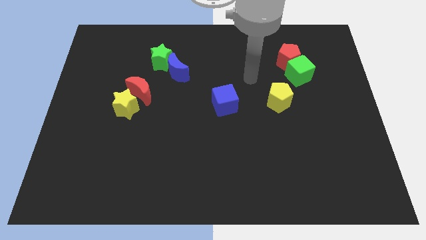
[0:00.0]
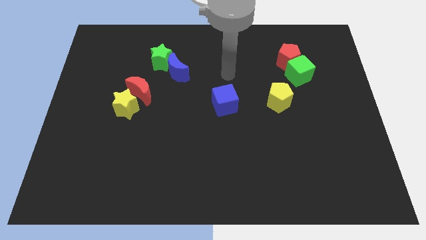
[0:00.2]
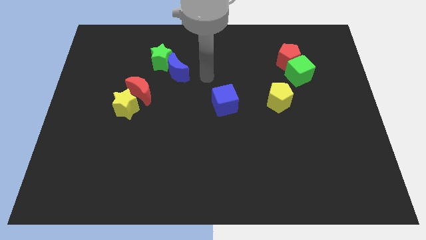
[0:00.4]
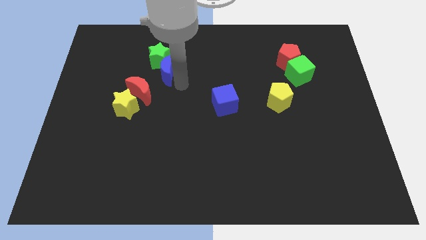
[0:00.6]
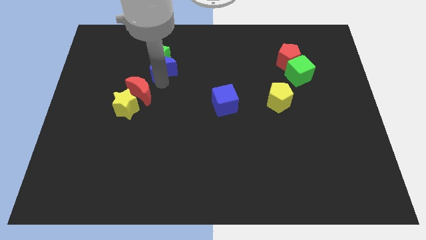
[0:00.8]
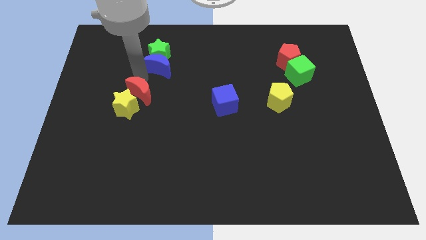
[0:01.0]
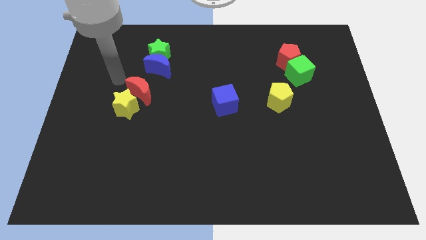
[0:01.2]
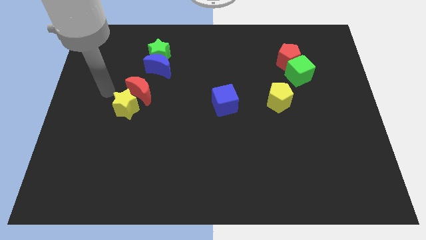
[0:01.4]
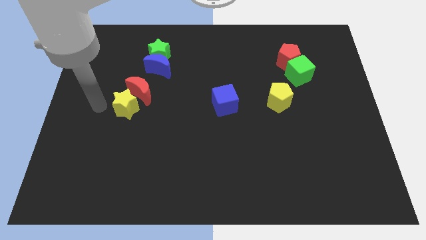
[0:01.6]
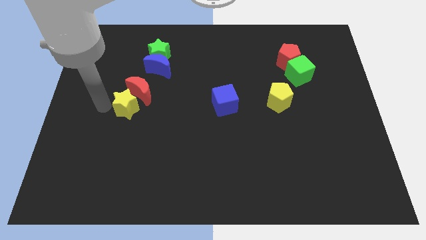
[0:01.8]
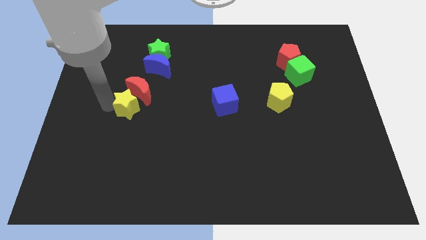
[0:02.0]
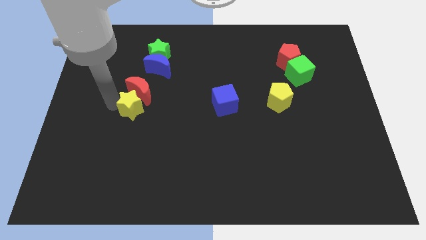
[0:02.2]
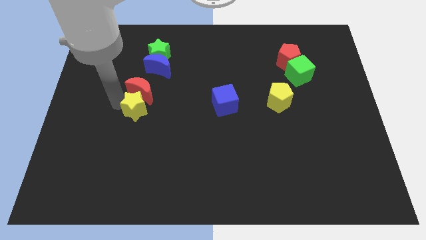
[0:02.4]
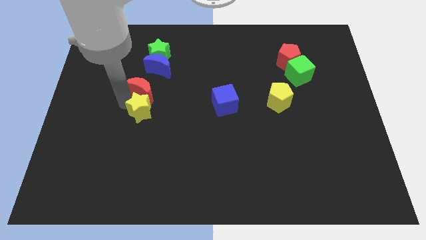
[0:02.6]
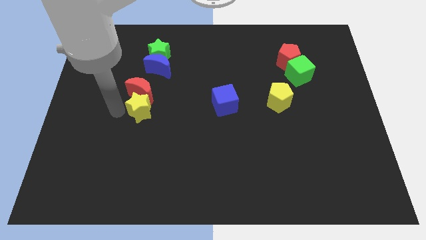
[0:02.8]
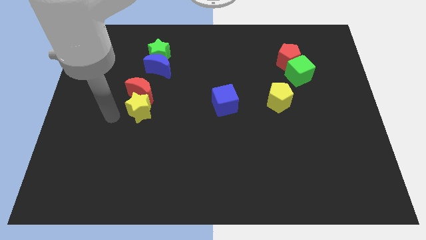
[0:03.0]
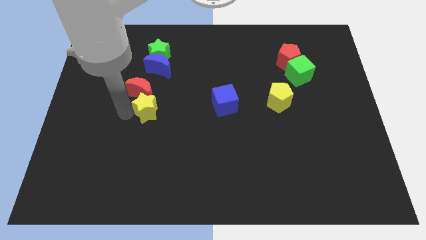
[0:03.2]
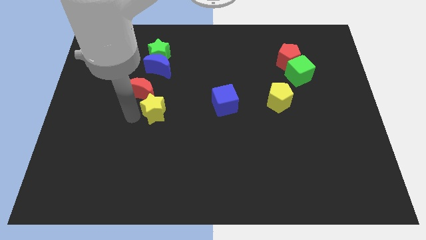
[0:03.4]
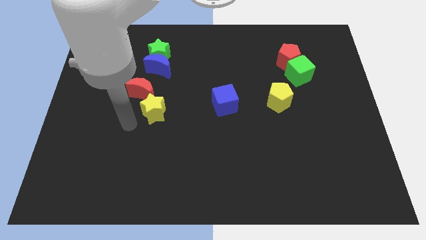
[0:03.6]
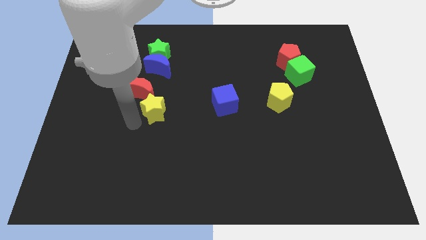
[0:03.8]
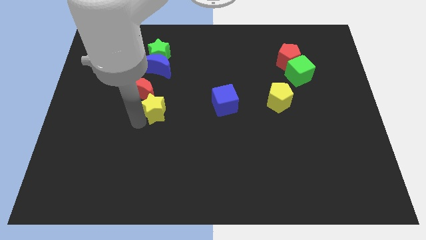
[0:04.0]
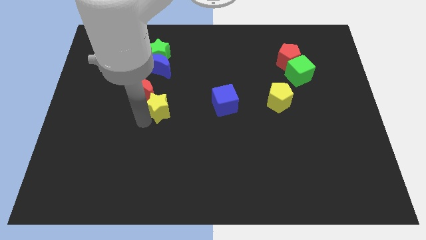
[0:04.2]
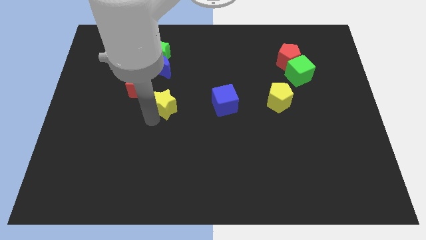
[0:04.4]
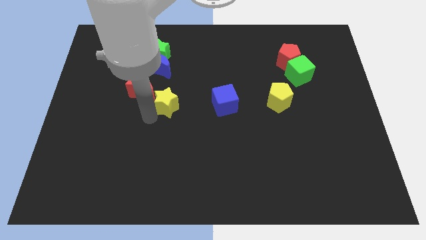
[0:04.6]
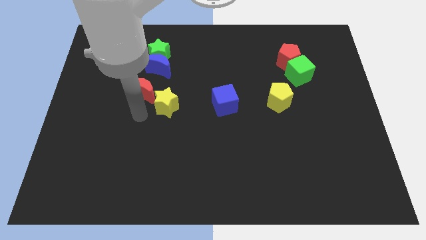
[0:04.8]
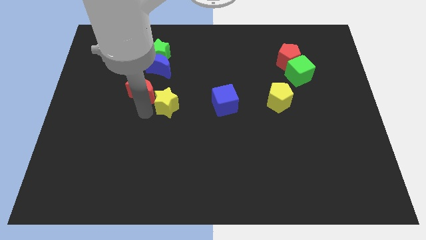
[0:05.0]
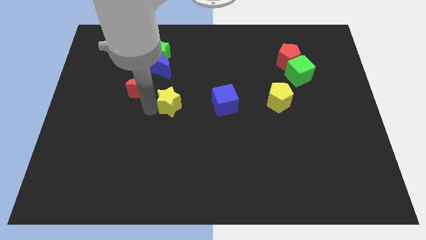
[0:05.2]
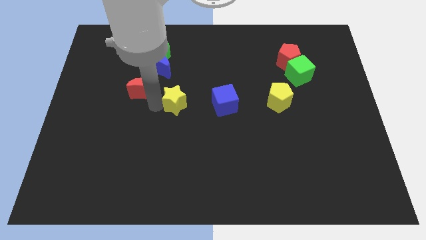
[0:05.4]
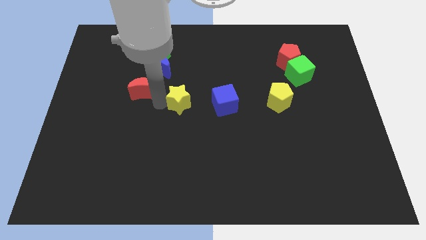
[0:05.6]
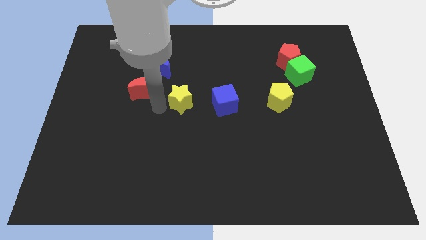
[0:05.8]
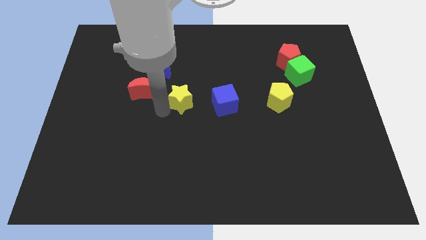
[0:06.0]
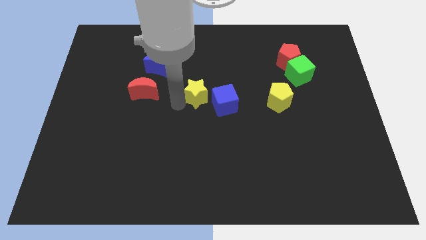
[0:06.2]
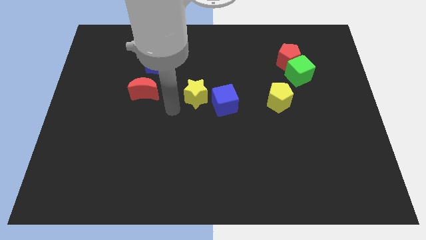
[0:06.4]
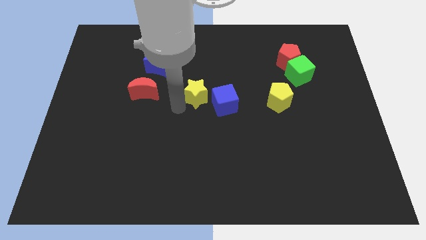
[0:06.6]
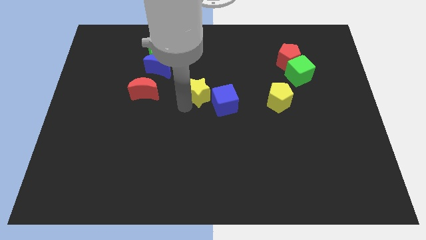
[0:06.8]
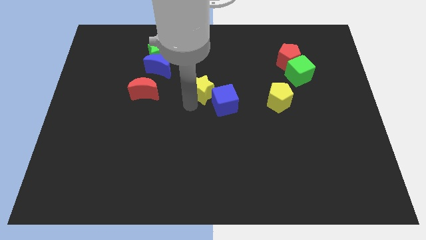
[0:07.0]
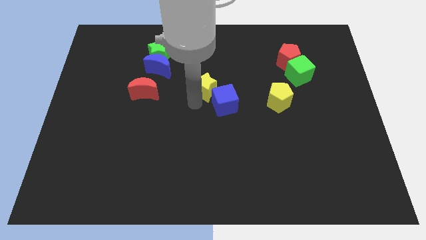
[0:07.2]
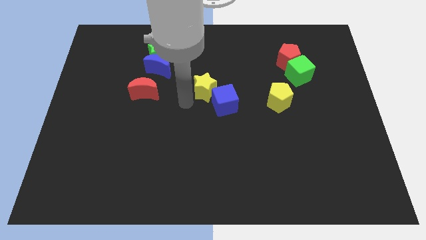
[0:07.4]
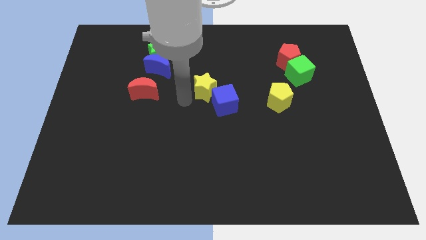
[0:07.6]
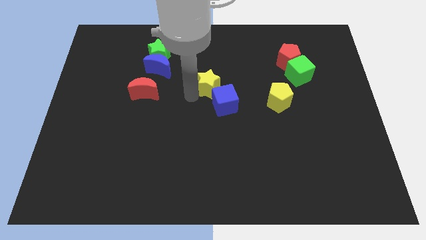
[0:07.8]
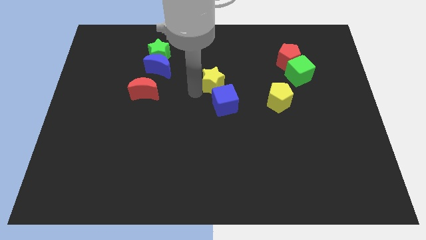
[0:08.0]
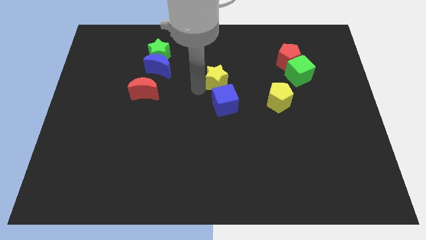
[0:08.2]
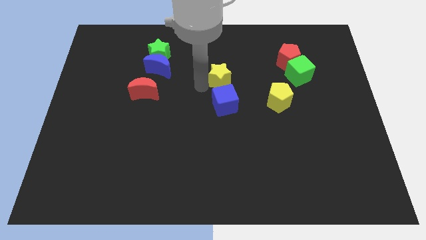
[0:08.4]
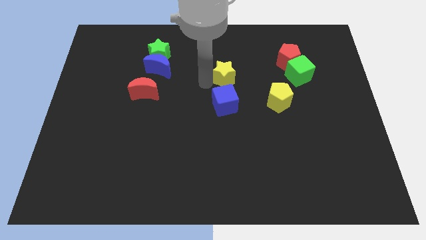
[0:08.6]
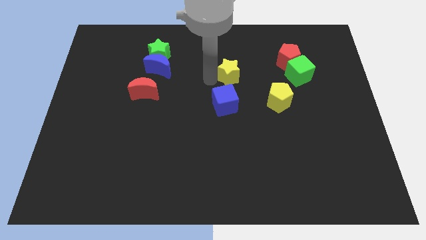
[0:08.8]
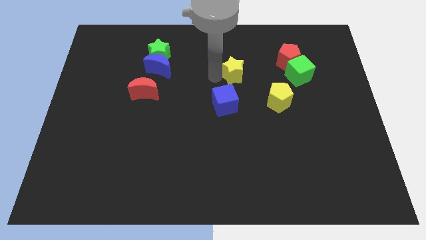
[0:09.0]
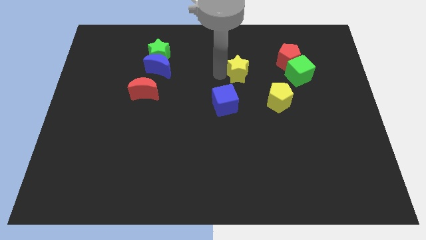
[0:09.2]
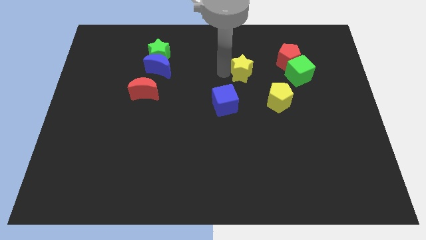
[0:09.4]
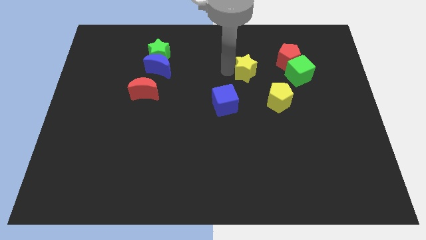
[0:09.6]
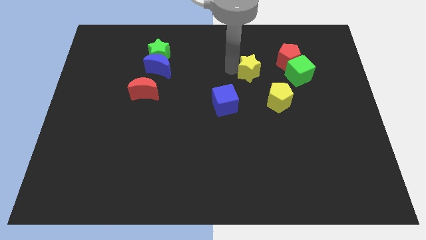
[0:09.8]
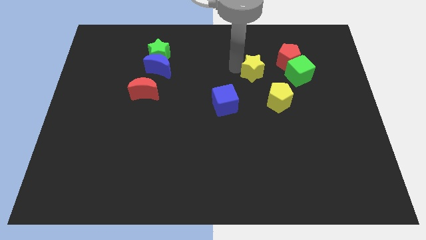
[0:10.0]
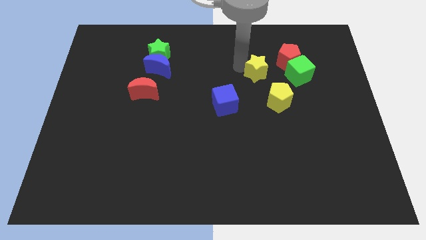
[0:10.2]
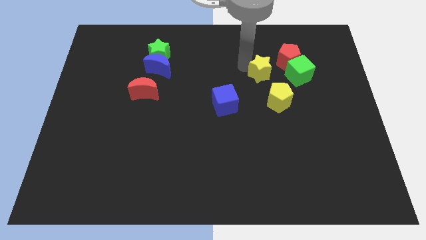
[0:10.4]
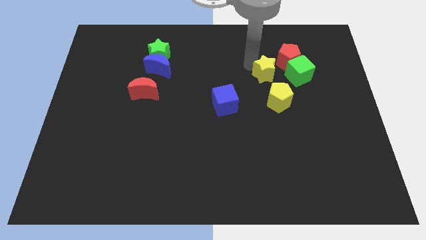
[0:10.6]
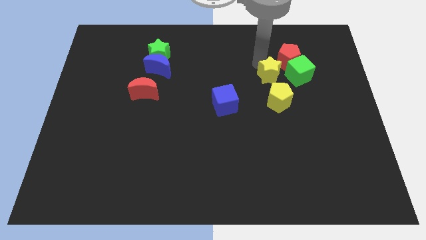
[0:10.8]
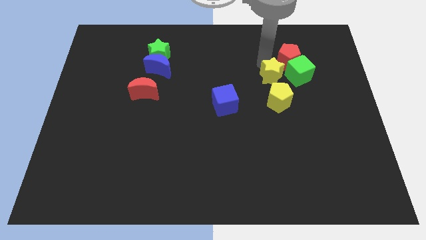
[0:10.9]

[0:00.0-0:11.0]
put the yellow star to the bottom of the red pentagon

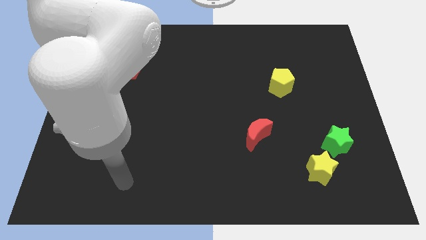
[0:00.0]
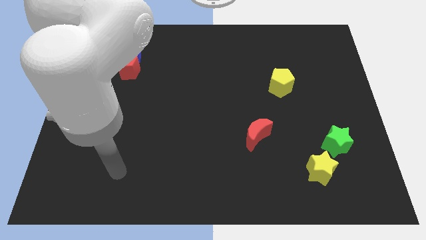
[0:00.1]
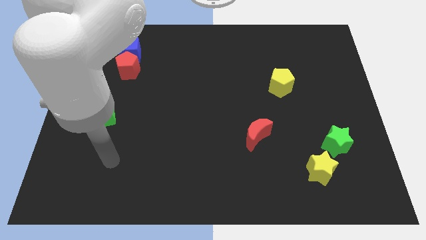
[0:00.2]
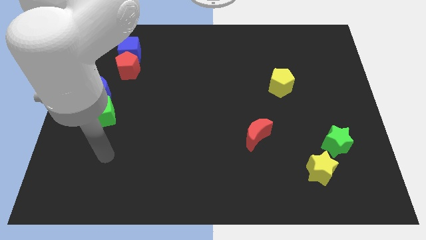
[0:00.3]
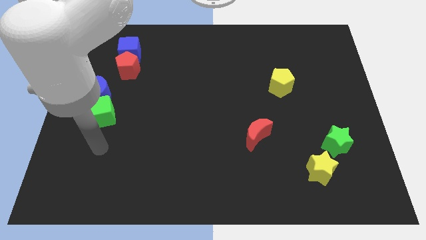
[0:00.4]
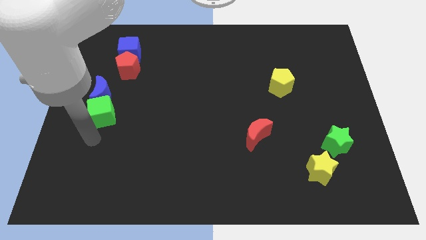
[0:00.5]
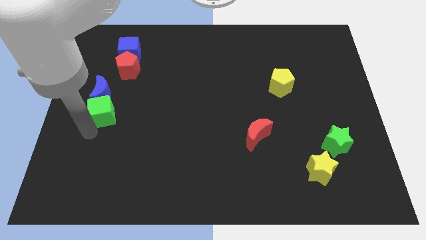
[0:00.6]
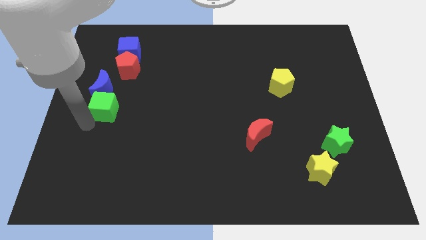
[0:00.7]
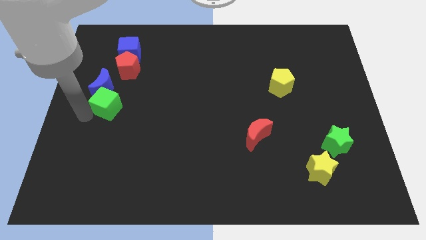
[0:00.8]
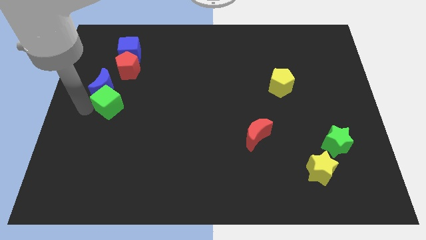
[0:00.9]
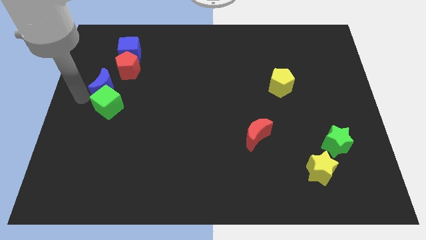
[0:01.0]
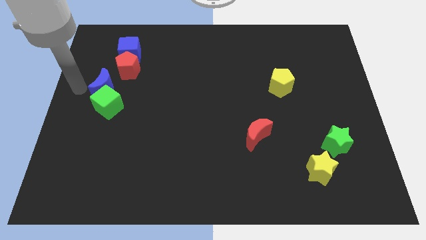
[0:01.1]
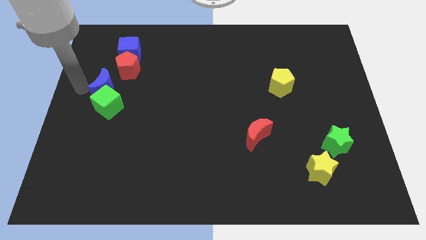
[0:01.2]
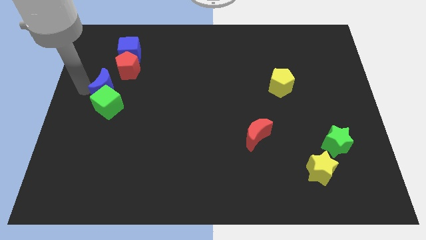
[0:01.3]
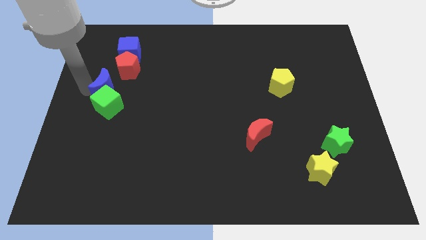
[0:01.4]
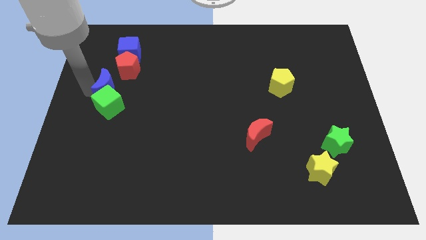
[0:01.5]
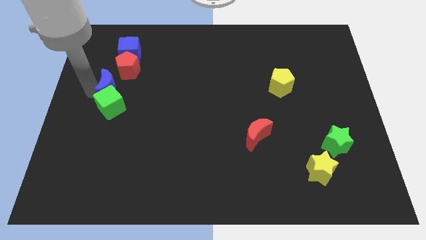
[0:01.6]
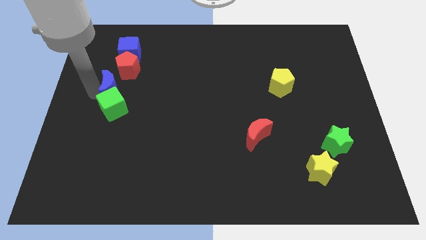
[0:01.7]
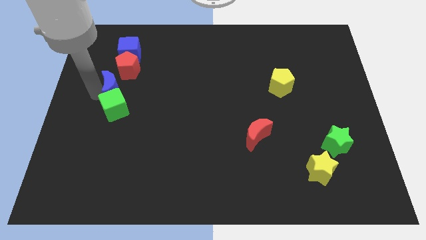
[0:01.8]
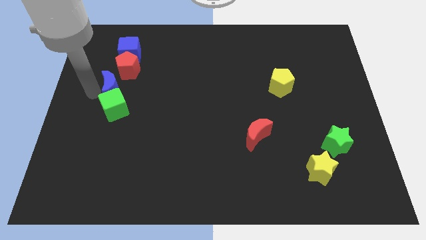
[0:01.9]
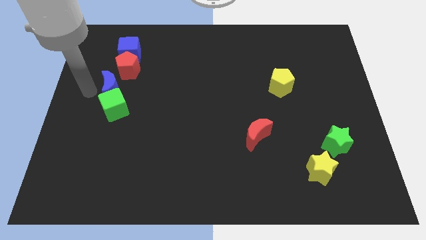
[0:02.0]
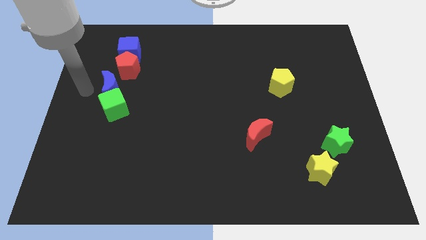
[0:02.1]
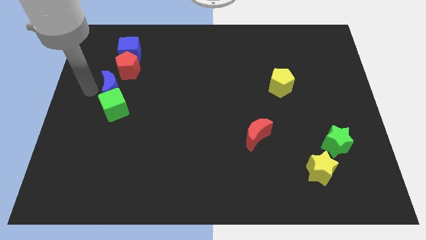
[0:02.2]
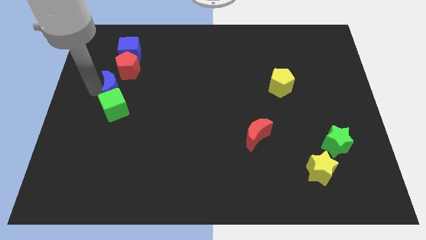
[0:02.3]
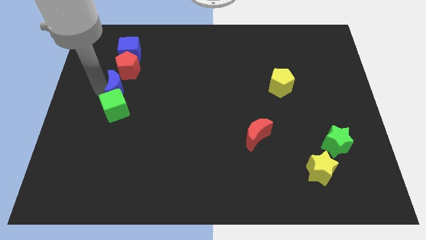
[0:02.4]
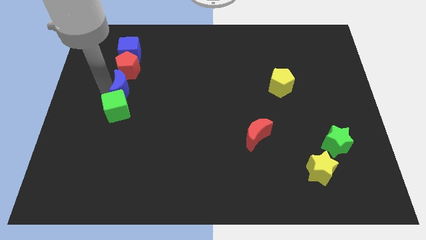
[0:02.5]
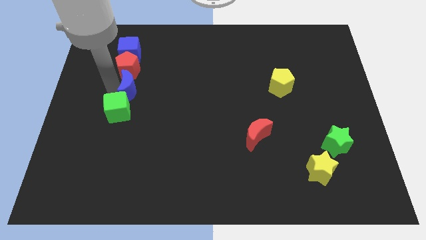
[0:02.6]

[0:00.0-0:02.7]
put the blue moon to the bottom right of the red pentagon
